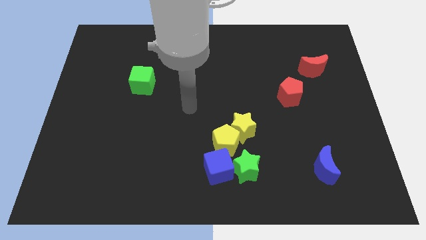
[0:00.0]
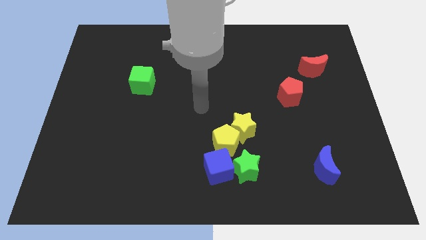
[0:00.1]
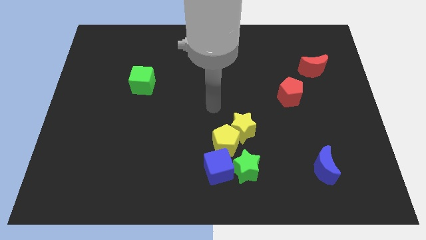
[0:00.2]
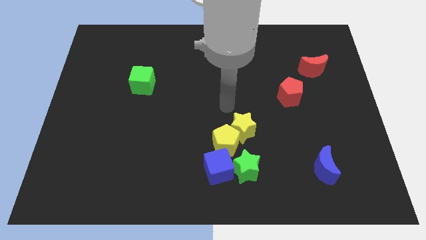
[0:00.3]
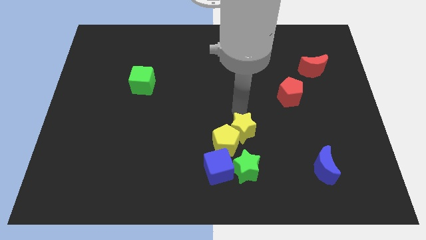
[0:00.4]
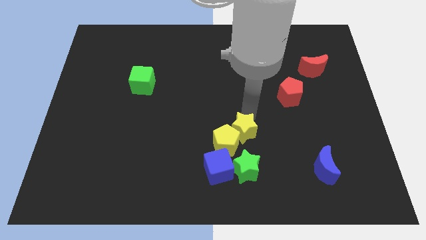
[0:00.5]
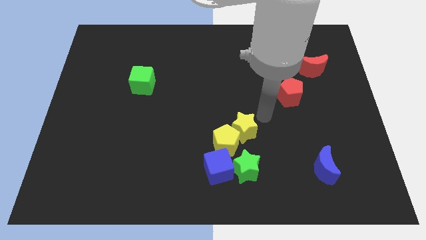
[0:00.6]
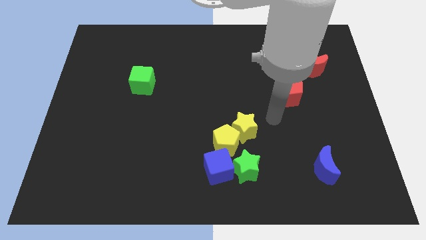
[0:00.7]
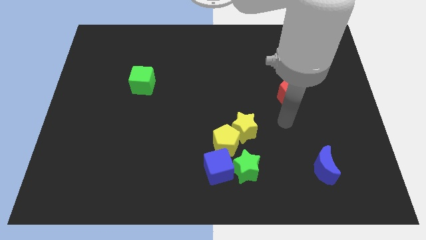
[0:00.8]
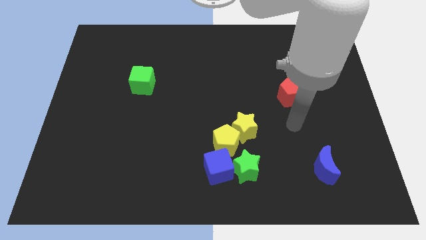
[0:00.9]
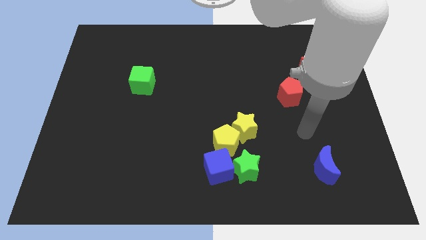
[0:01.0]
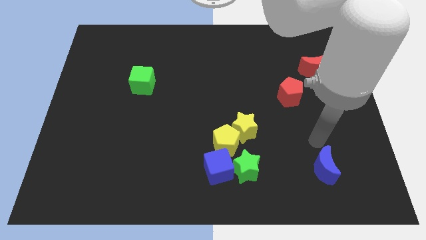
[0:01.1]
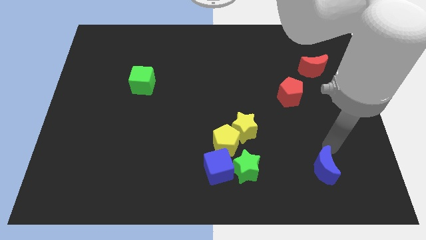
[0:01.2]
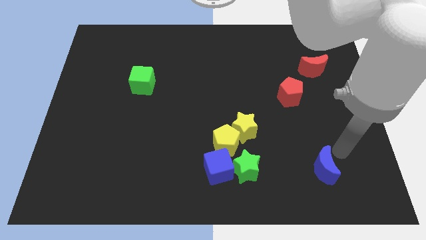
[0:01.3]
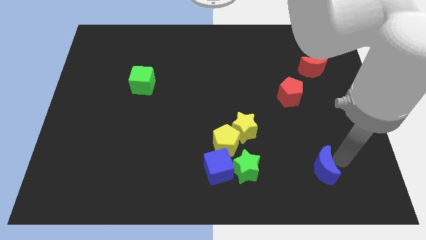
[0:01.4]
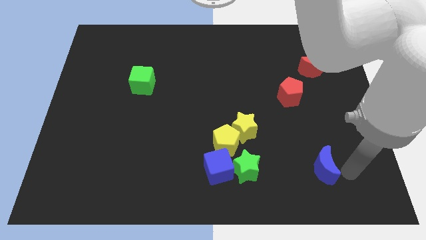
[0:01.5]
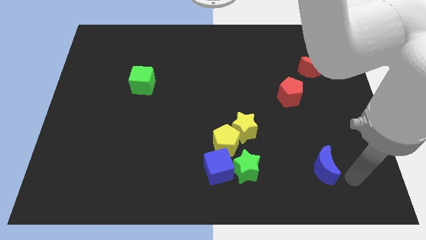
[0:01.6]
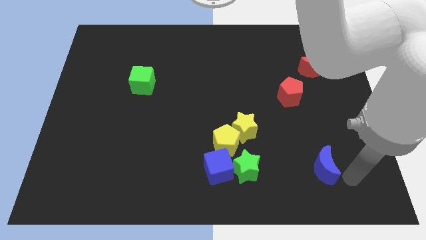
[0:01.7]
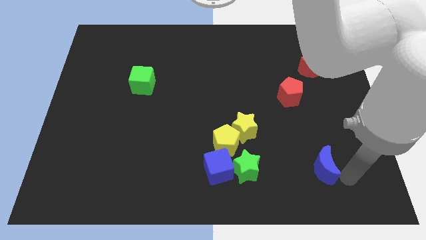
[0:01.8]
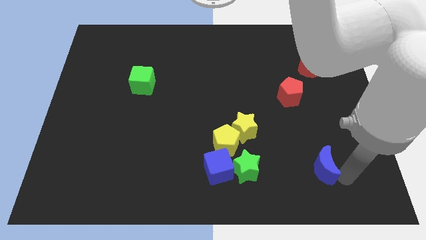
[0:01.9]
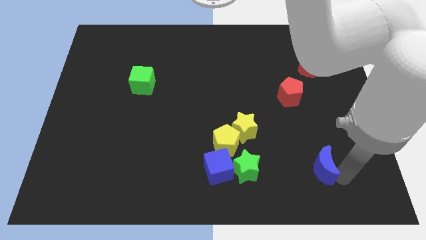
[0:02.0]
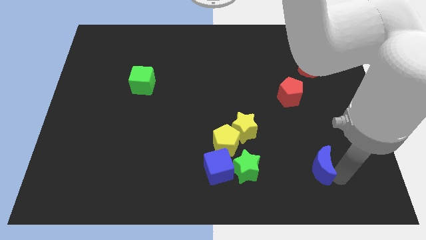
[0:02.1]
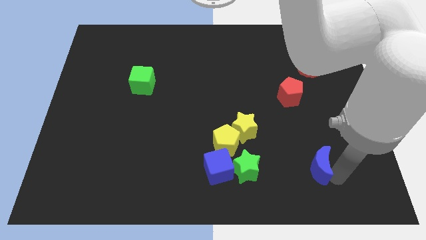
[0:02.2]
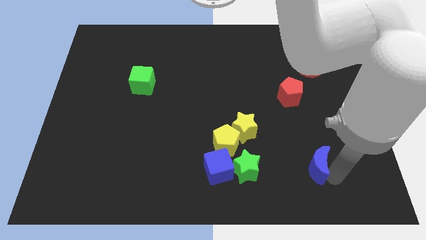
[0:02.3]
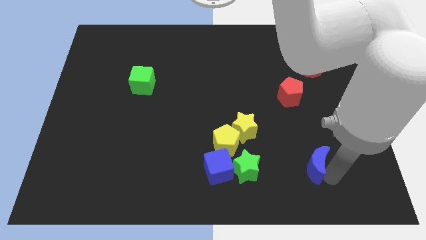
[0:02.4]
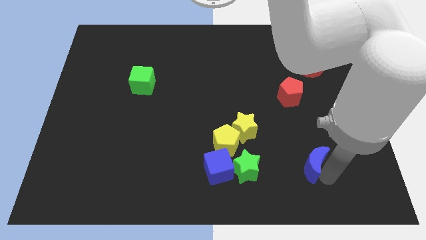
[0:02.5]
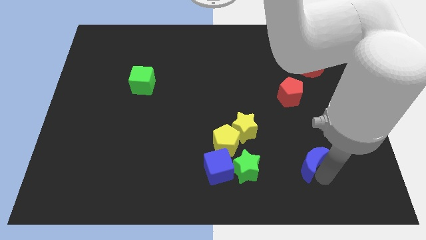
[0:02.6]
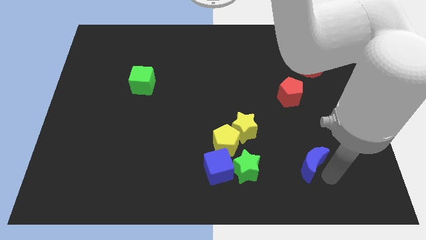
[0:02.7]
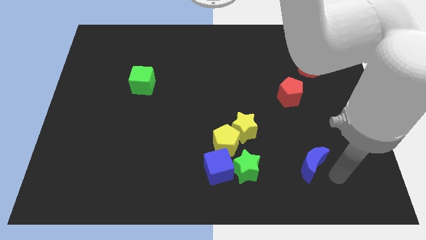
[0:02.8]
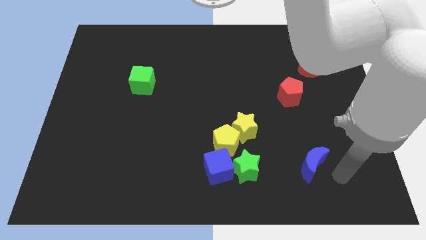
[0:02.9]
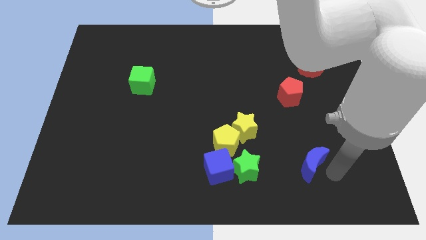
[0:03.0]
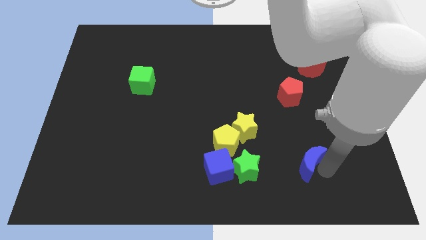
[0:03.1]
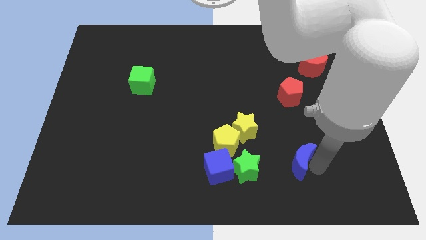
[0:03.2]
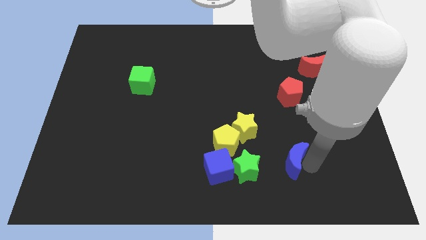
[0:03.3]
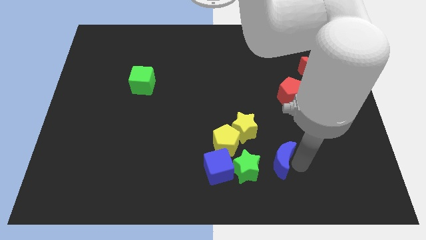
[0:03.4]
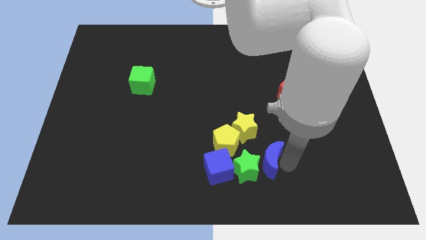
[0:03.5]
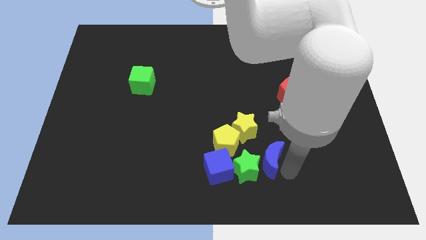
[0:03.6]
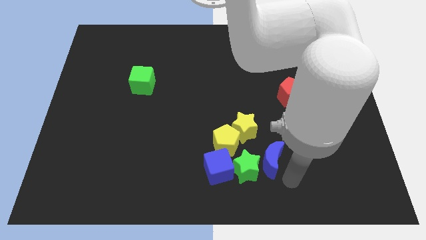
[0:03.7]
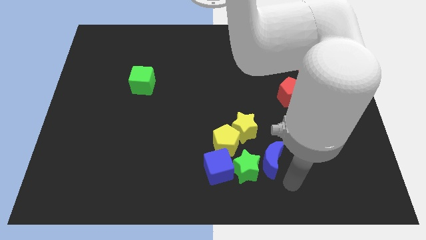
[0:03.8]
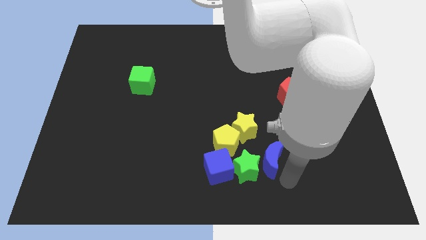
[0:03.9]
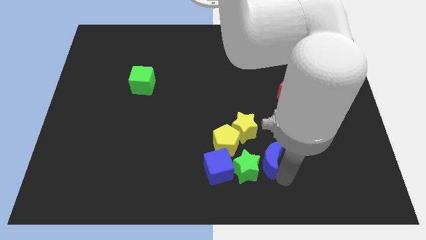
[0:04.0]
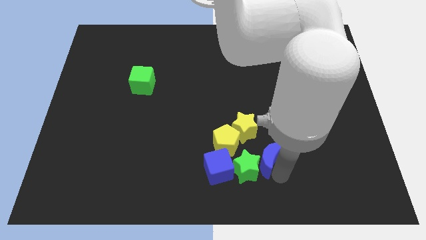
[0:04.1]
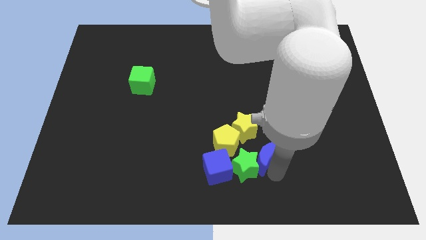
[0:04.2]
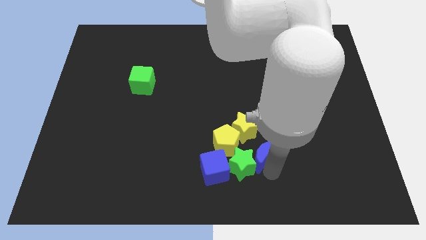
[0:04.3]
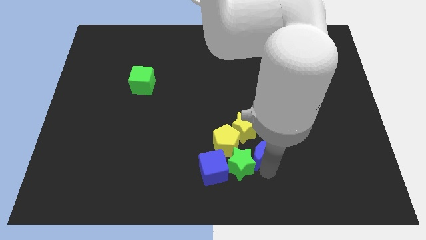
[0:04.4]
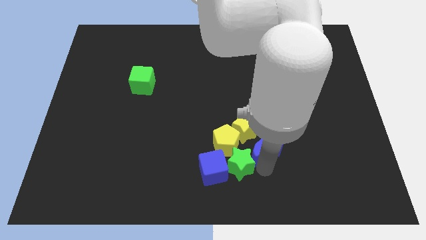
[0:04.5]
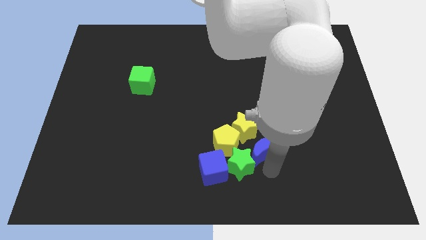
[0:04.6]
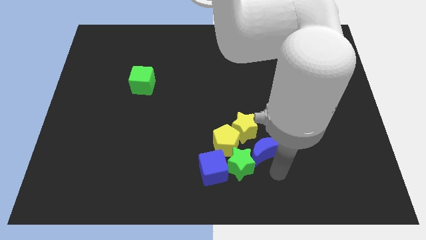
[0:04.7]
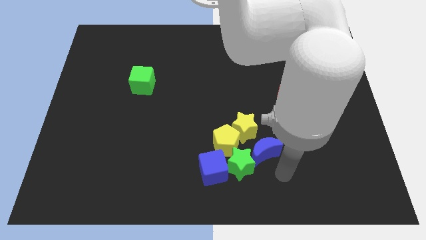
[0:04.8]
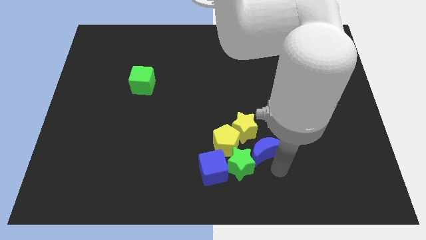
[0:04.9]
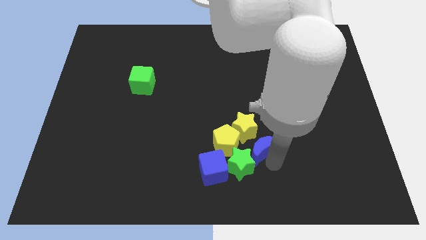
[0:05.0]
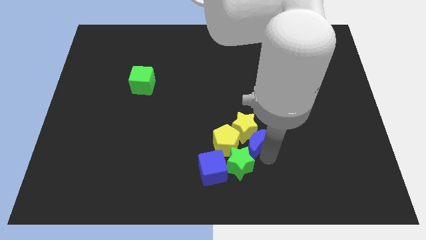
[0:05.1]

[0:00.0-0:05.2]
push the blue moon close to the yellow star

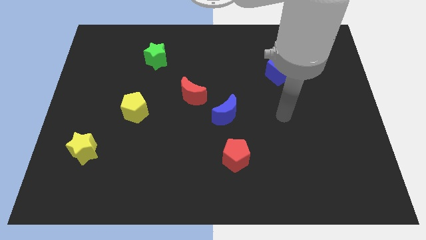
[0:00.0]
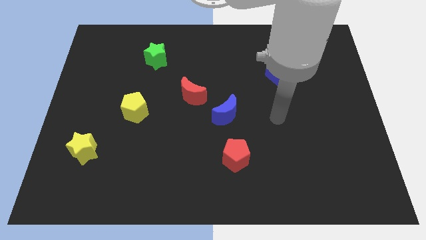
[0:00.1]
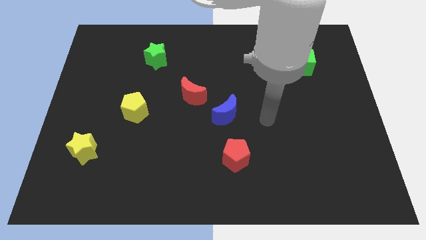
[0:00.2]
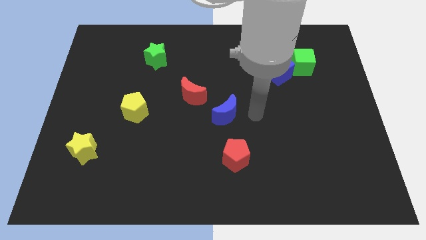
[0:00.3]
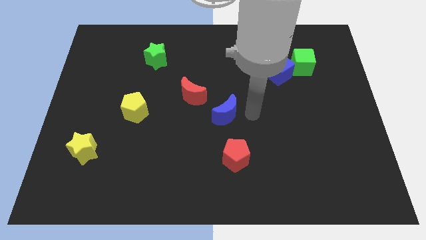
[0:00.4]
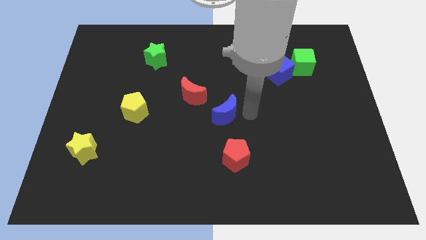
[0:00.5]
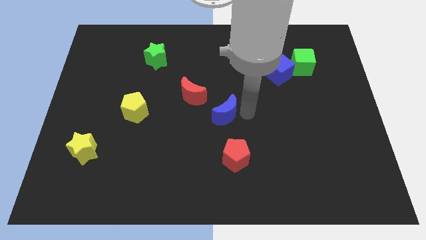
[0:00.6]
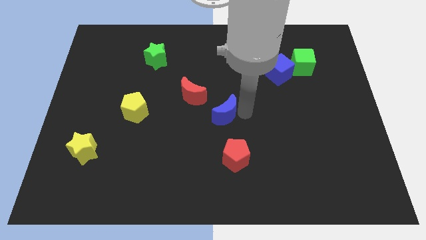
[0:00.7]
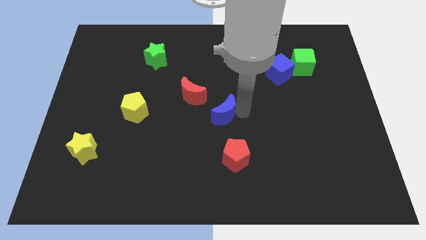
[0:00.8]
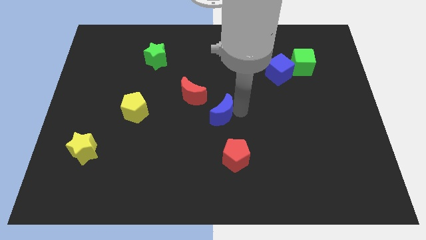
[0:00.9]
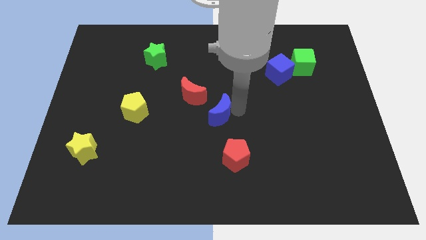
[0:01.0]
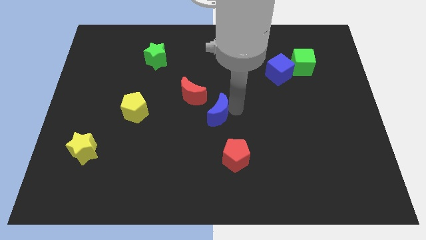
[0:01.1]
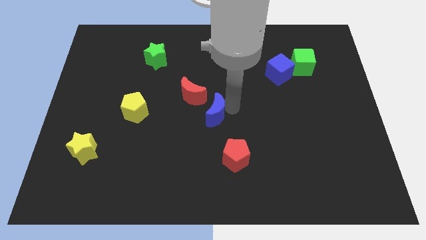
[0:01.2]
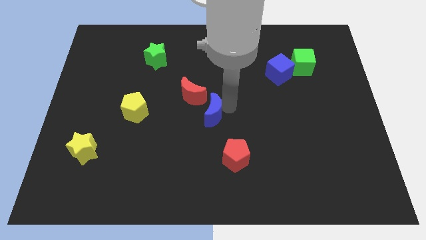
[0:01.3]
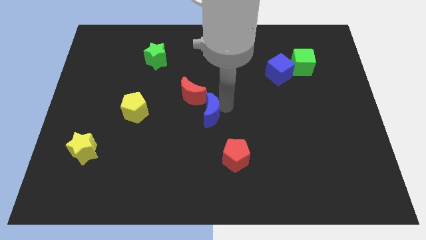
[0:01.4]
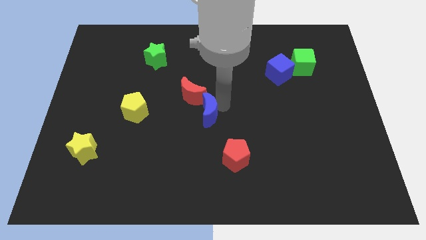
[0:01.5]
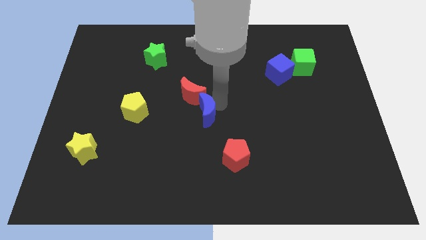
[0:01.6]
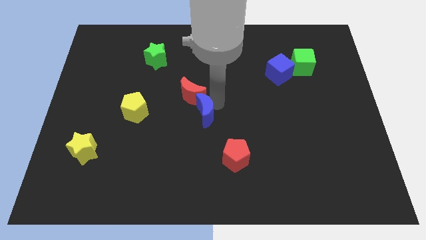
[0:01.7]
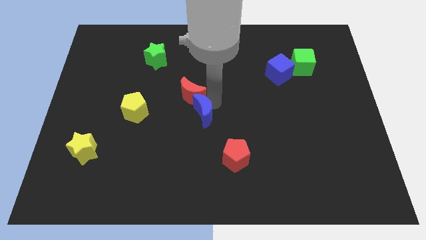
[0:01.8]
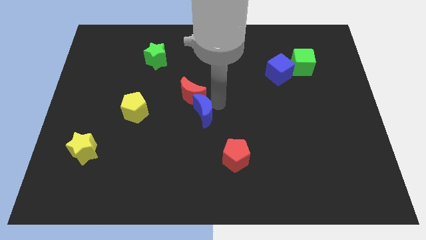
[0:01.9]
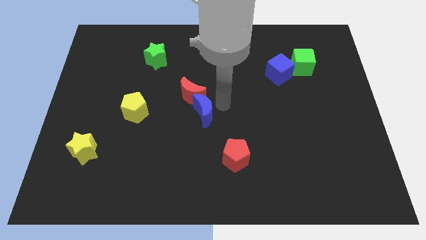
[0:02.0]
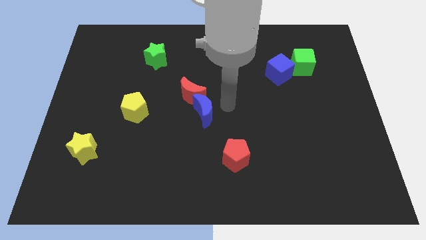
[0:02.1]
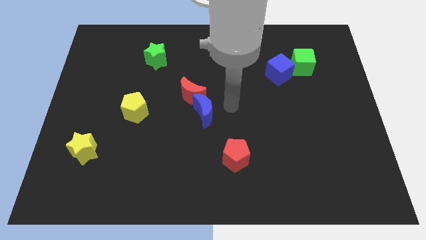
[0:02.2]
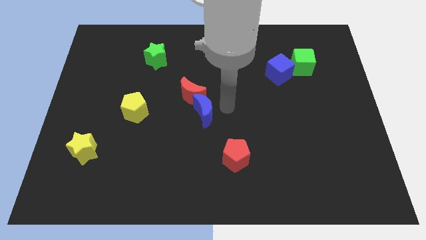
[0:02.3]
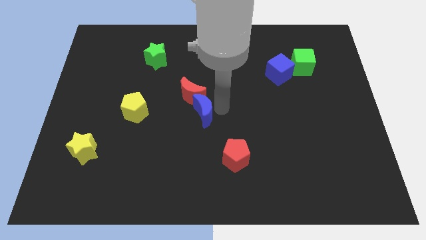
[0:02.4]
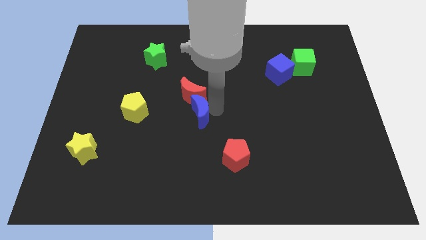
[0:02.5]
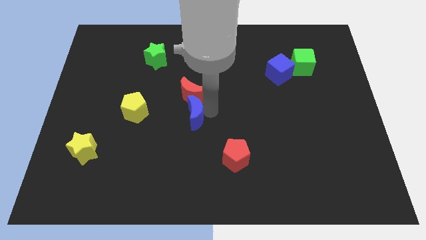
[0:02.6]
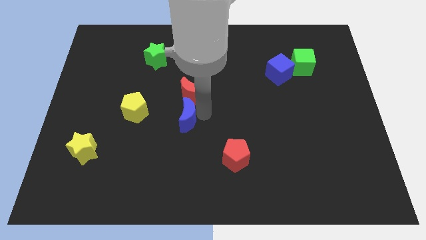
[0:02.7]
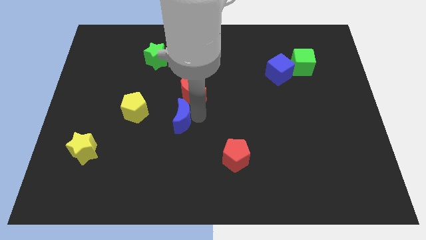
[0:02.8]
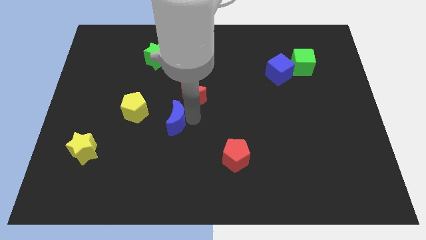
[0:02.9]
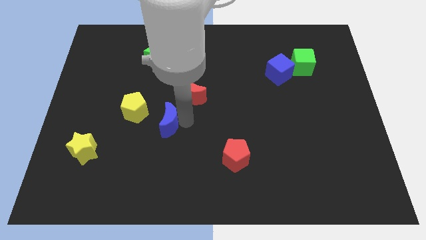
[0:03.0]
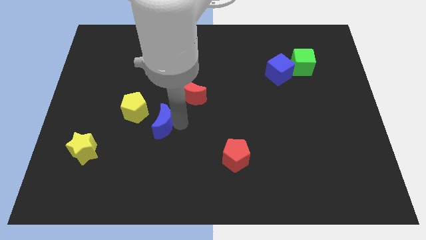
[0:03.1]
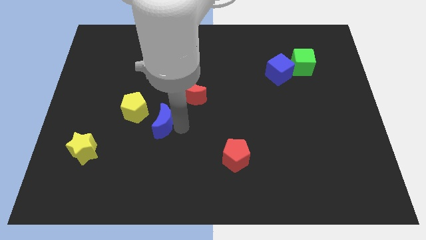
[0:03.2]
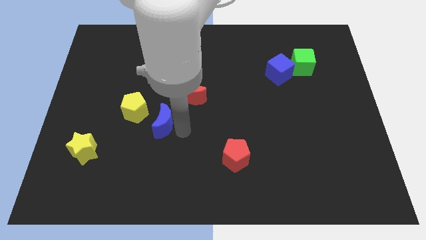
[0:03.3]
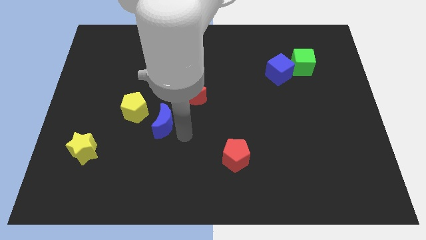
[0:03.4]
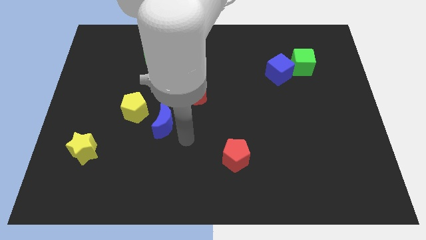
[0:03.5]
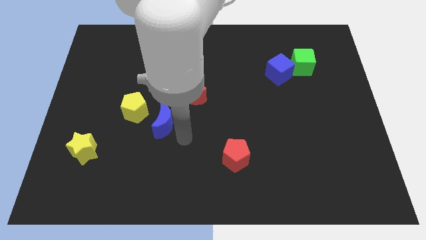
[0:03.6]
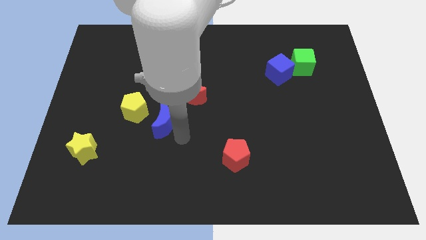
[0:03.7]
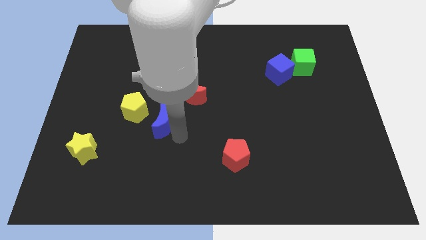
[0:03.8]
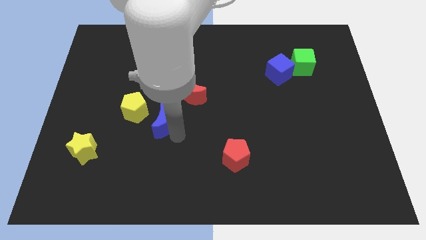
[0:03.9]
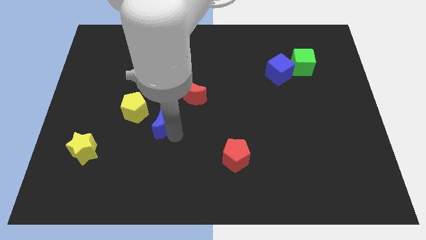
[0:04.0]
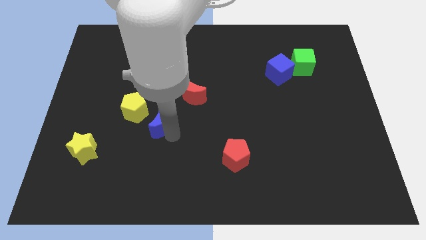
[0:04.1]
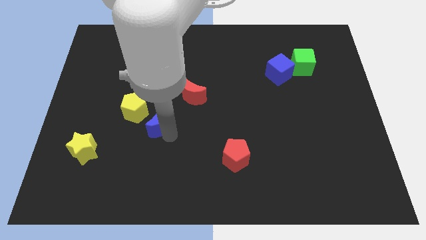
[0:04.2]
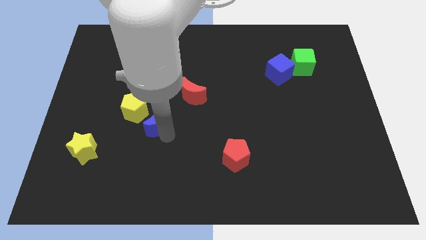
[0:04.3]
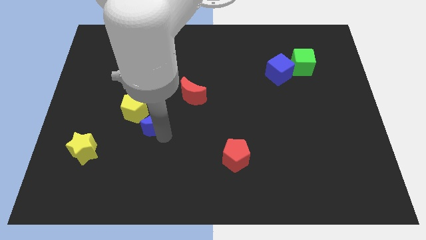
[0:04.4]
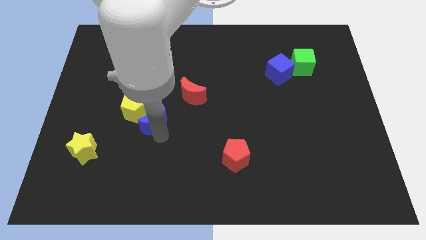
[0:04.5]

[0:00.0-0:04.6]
push the blue moon towards the yellow pentagon
